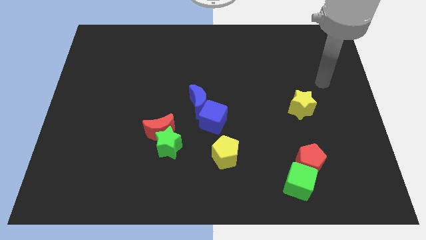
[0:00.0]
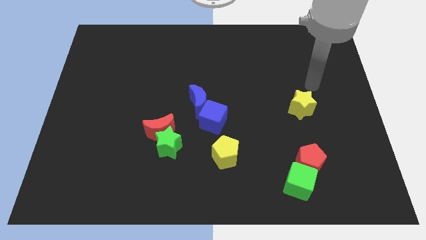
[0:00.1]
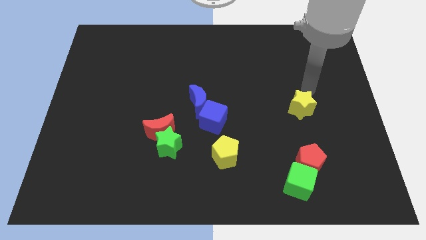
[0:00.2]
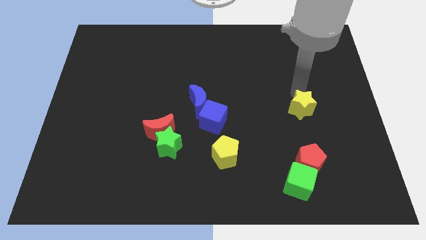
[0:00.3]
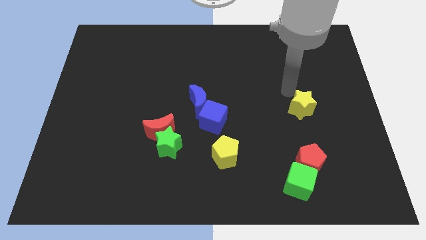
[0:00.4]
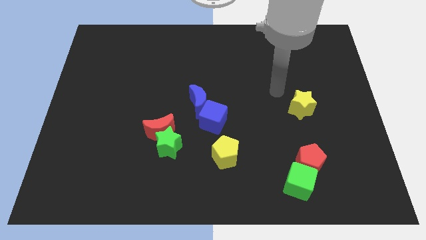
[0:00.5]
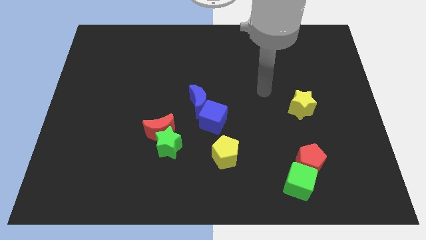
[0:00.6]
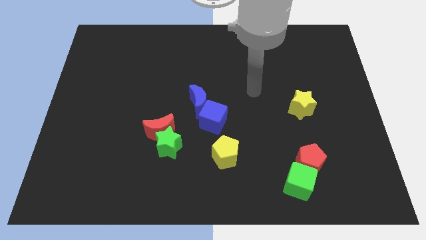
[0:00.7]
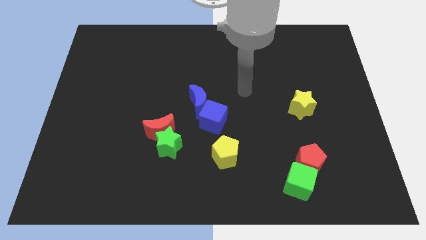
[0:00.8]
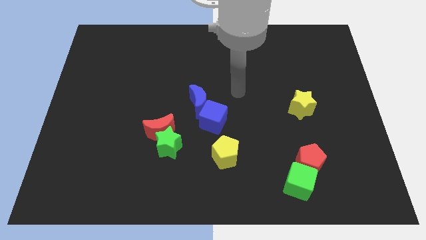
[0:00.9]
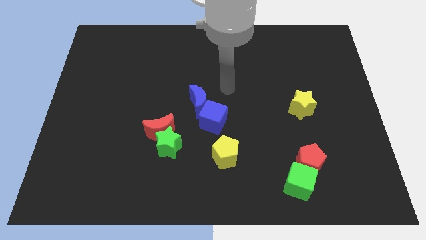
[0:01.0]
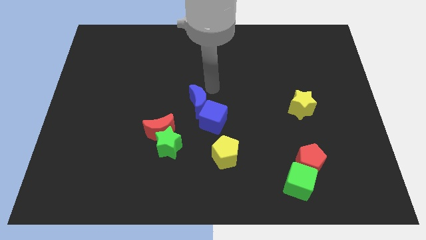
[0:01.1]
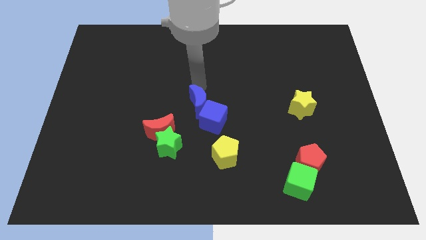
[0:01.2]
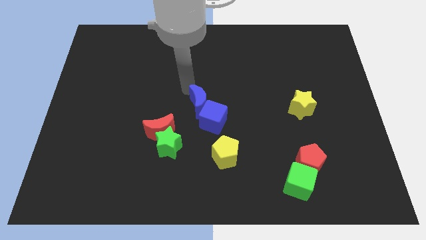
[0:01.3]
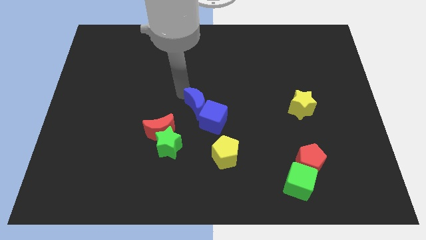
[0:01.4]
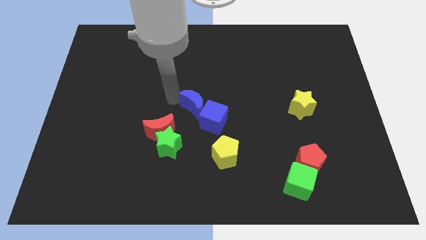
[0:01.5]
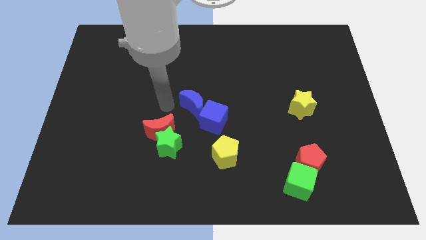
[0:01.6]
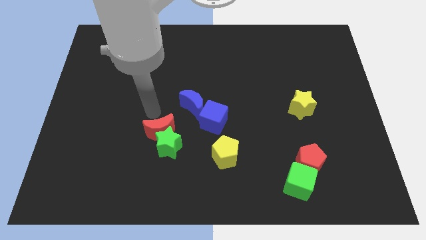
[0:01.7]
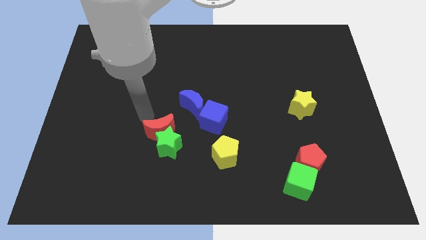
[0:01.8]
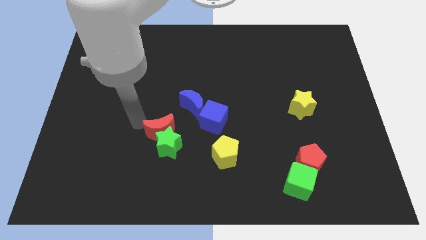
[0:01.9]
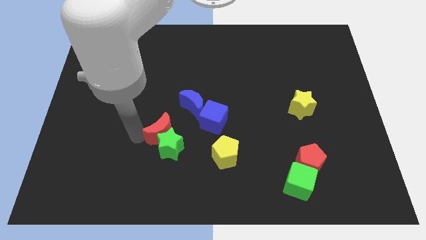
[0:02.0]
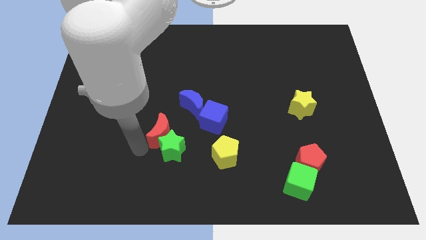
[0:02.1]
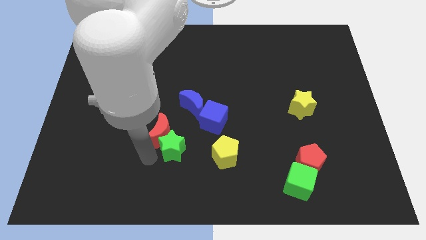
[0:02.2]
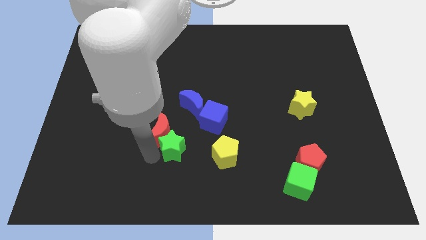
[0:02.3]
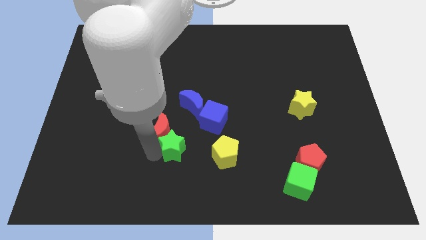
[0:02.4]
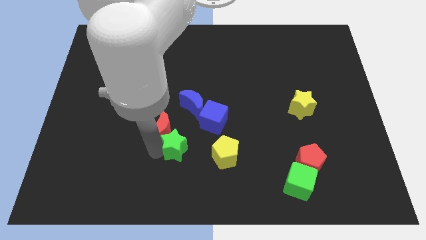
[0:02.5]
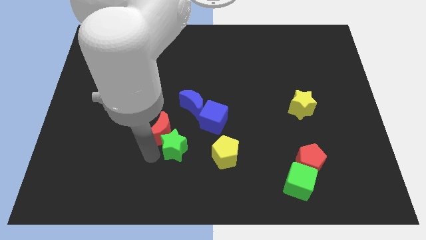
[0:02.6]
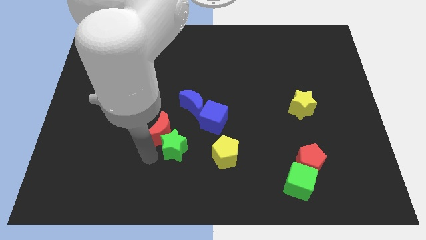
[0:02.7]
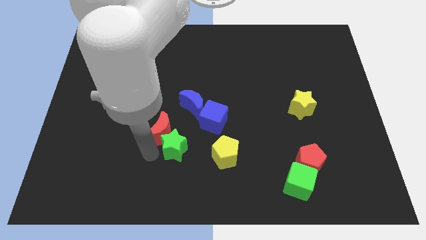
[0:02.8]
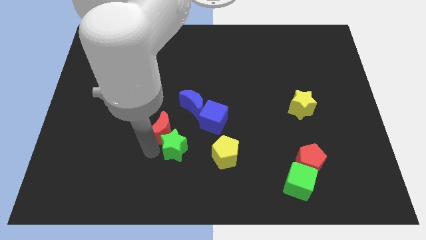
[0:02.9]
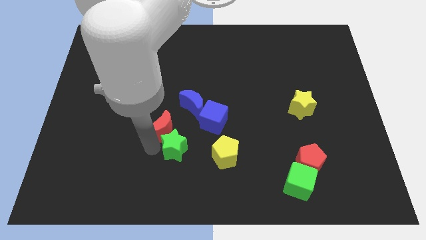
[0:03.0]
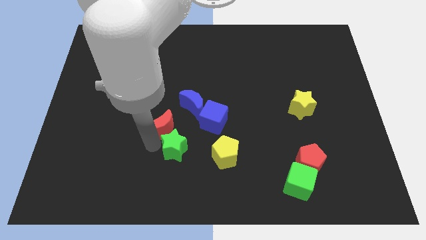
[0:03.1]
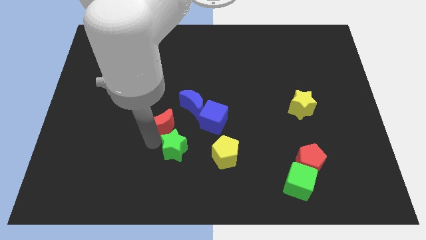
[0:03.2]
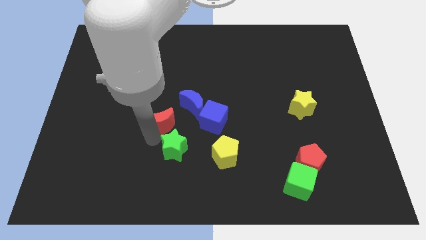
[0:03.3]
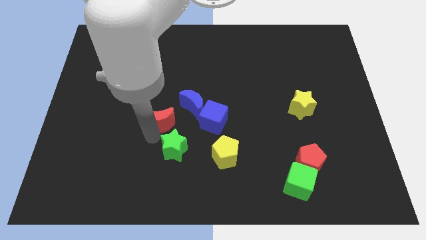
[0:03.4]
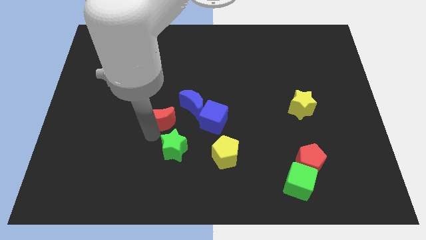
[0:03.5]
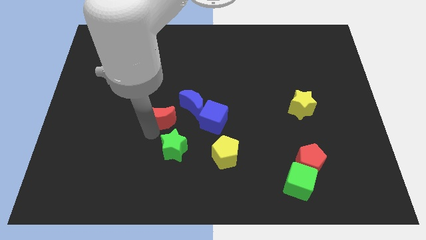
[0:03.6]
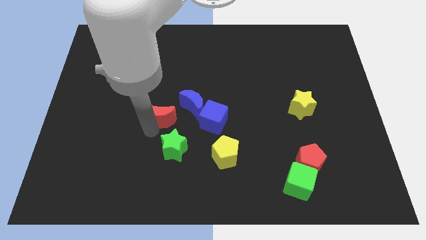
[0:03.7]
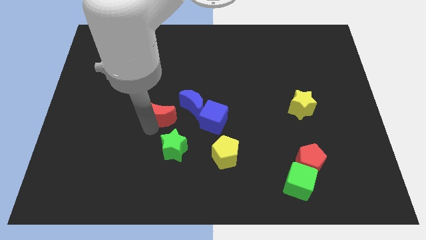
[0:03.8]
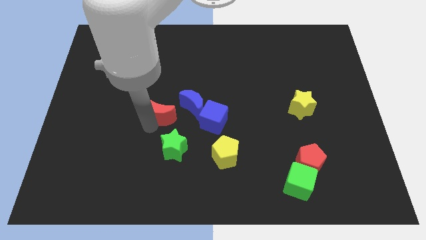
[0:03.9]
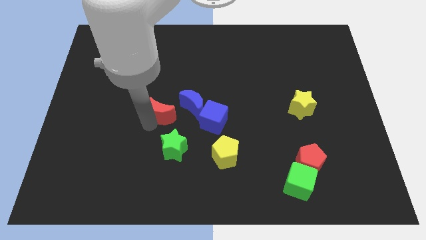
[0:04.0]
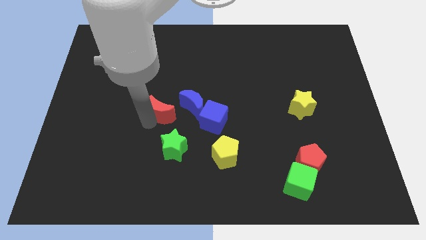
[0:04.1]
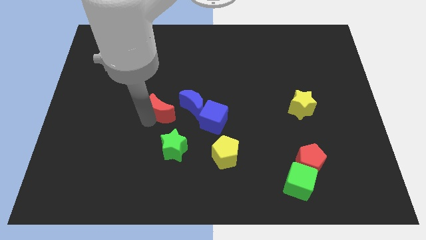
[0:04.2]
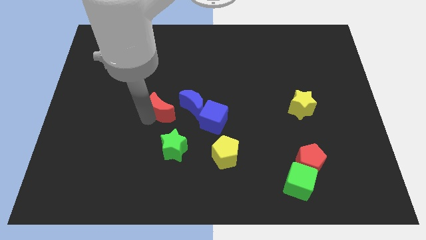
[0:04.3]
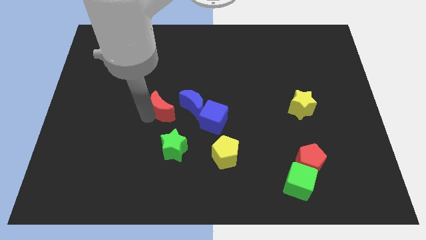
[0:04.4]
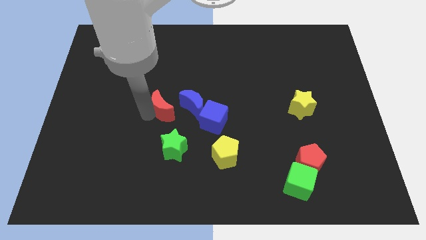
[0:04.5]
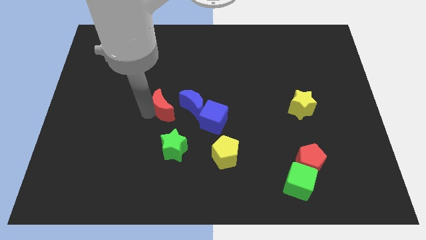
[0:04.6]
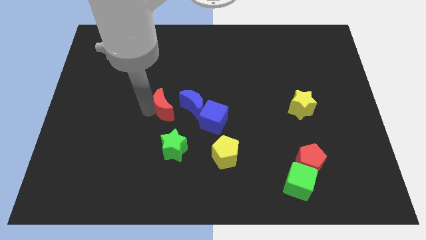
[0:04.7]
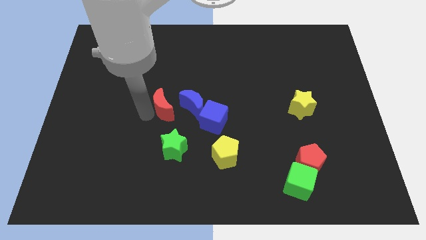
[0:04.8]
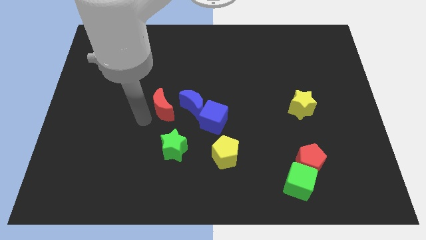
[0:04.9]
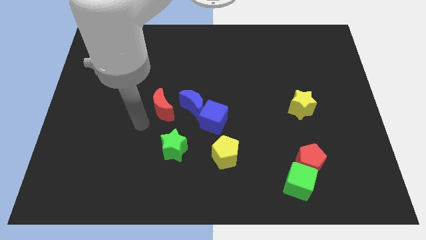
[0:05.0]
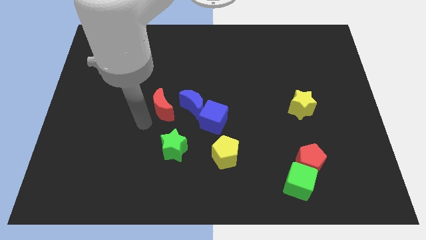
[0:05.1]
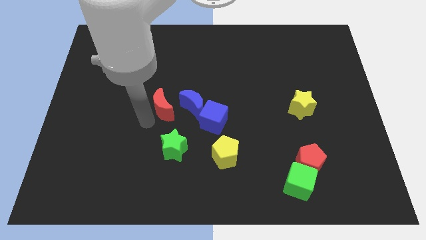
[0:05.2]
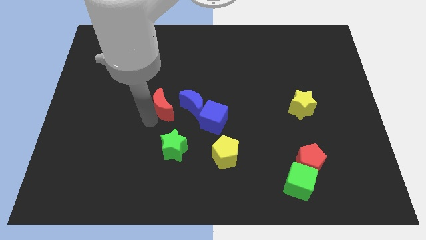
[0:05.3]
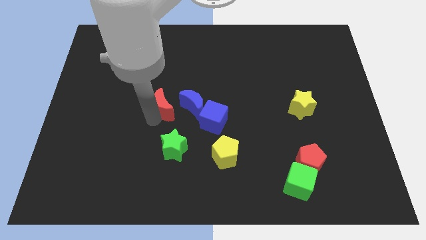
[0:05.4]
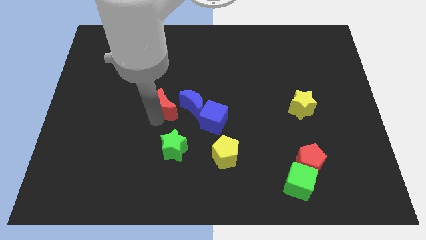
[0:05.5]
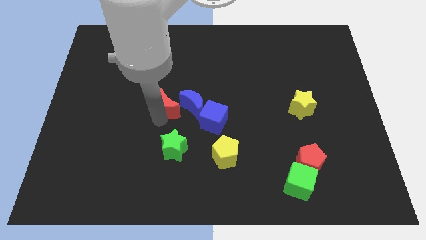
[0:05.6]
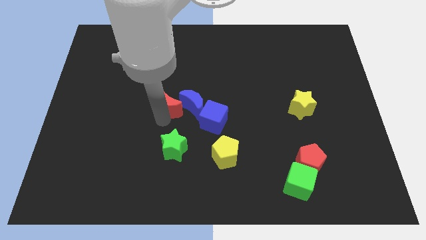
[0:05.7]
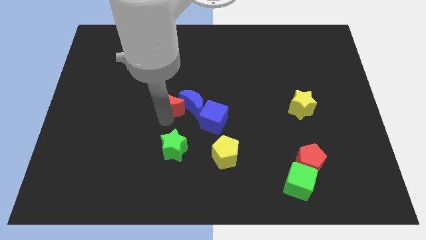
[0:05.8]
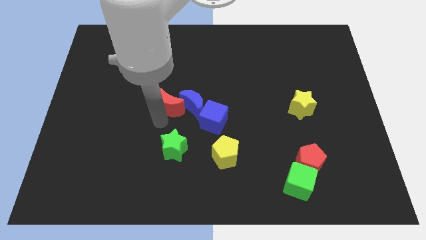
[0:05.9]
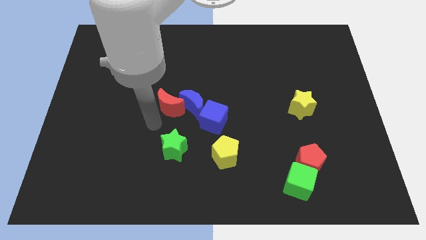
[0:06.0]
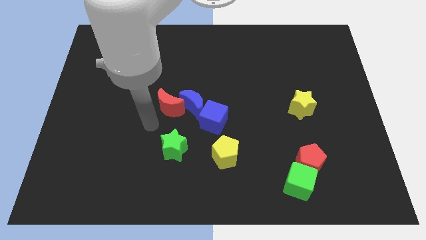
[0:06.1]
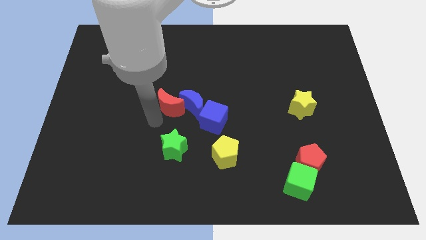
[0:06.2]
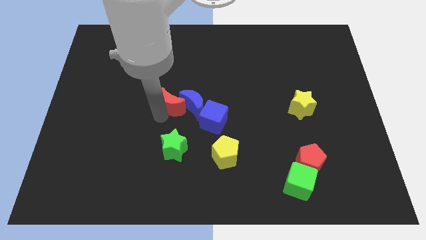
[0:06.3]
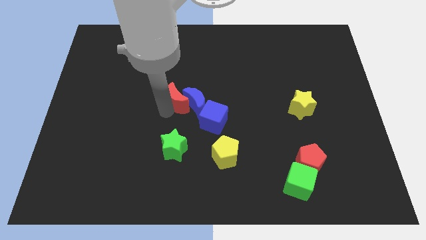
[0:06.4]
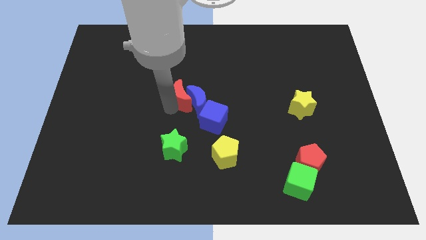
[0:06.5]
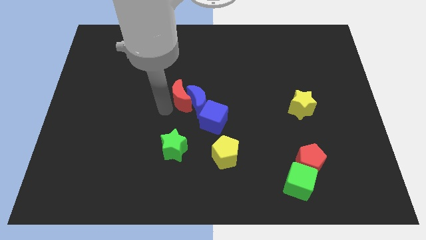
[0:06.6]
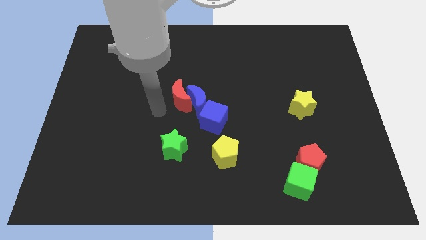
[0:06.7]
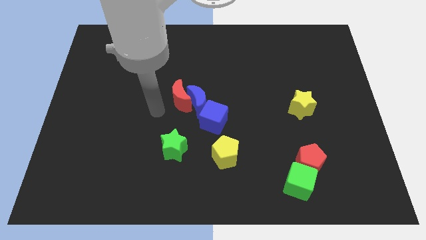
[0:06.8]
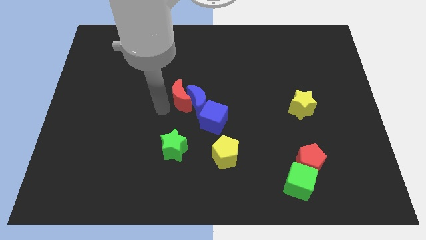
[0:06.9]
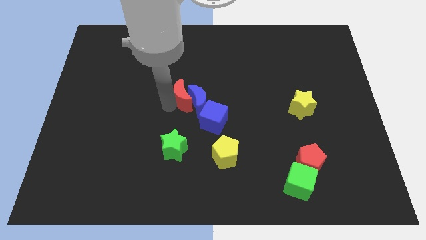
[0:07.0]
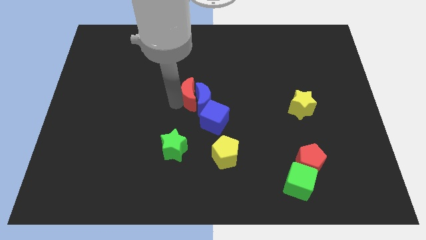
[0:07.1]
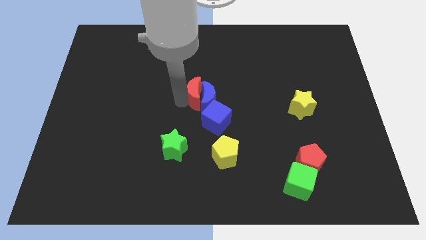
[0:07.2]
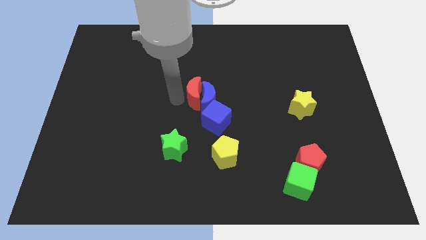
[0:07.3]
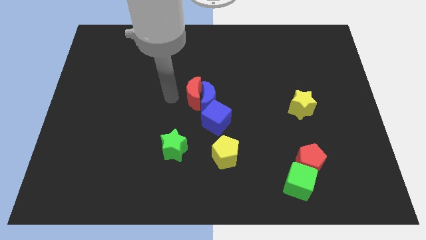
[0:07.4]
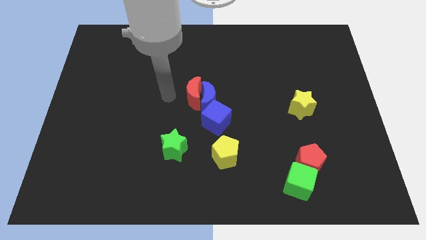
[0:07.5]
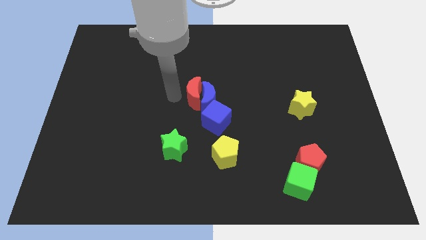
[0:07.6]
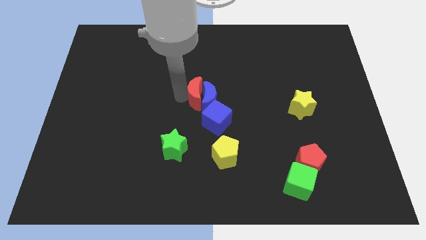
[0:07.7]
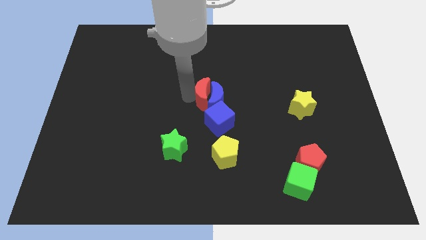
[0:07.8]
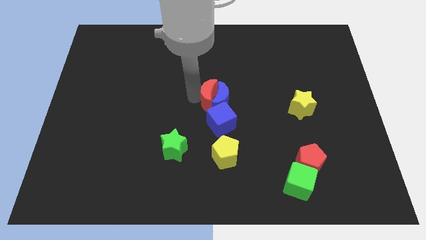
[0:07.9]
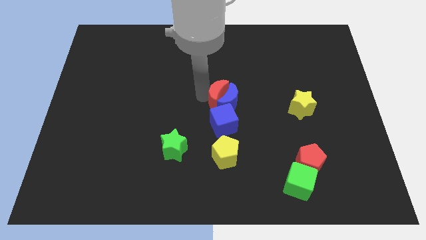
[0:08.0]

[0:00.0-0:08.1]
slightly move the red moon right
